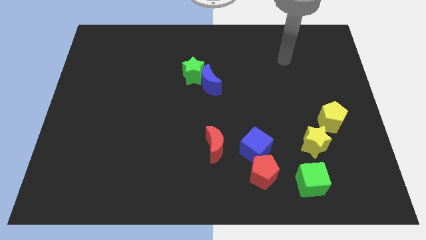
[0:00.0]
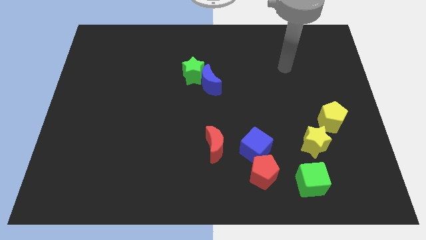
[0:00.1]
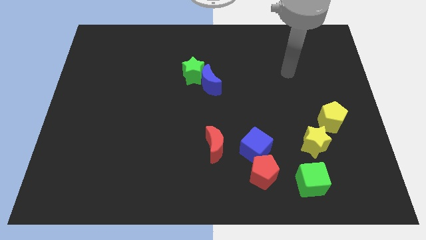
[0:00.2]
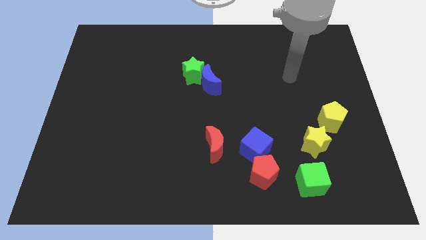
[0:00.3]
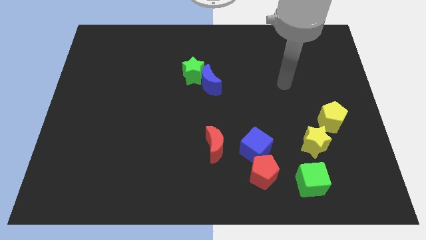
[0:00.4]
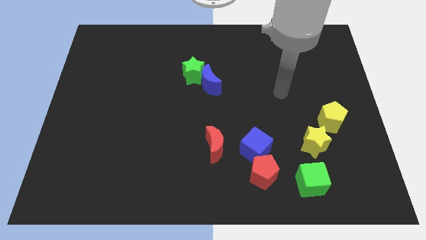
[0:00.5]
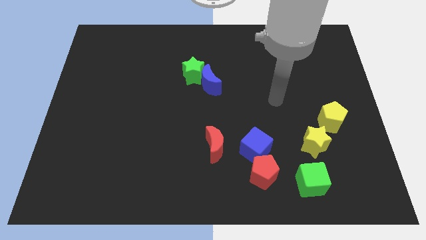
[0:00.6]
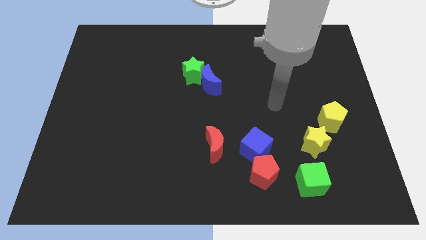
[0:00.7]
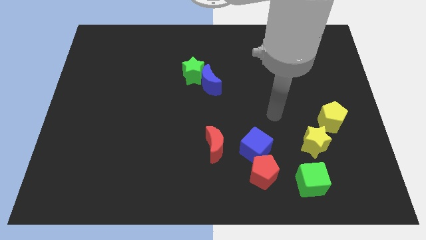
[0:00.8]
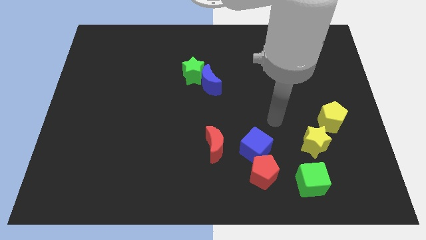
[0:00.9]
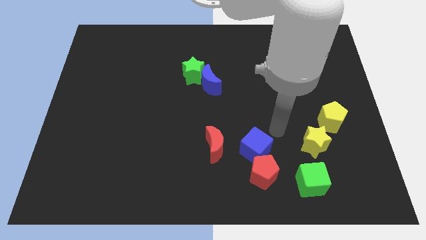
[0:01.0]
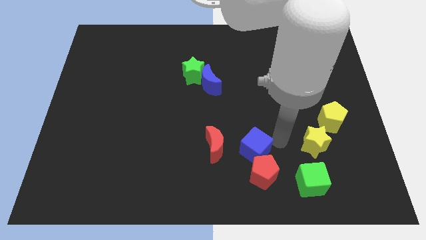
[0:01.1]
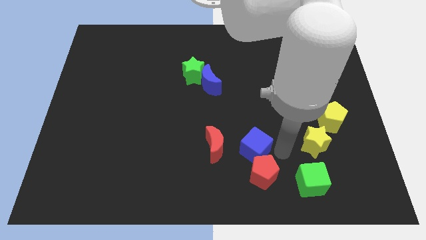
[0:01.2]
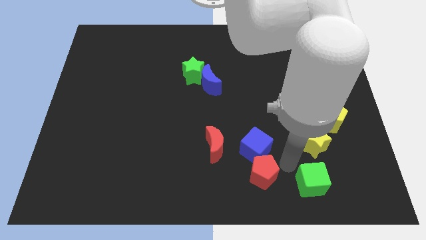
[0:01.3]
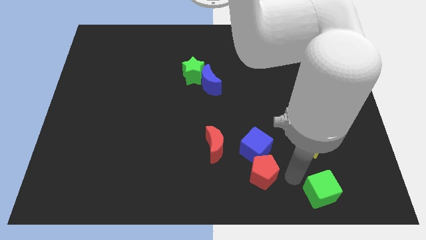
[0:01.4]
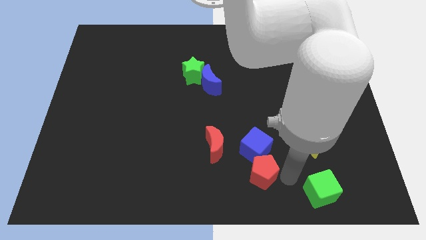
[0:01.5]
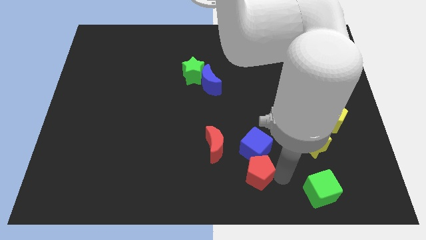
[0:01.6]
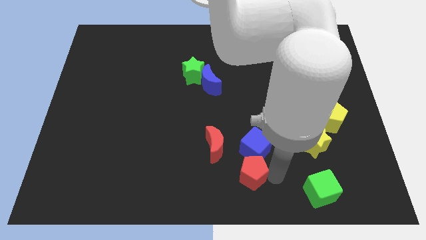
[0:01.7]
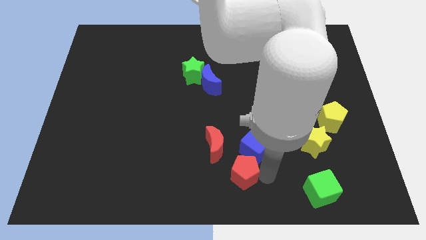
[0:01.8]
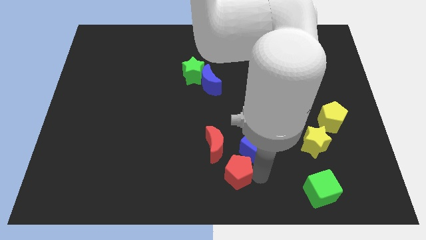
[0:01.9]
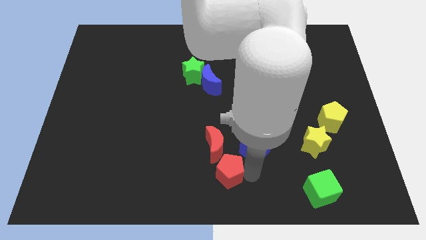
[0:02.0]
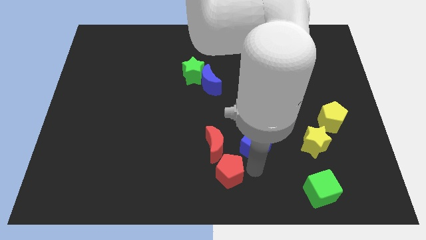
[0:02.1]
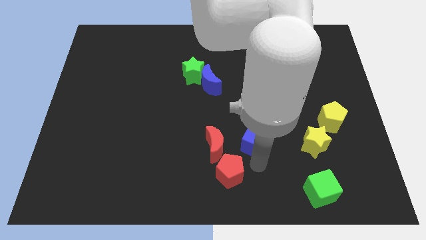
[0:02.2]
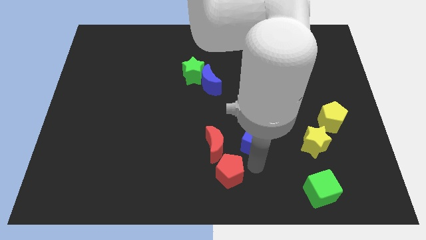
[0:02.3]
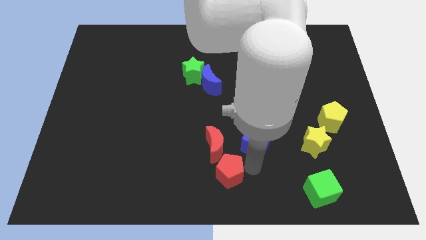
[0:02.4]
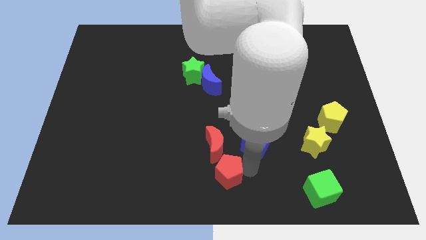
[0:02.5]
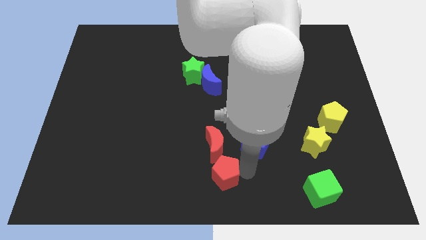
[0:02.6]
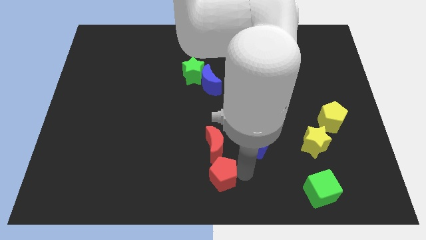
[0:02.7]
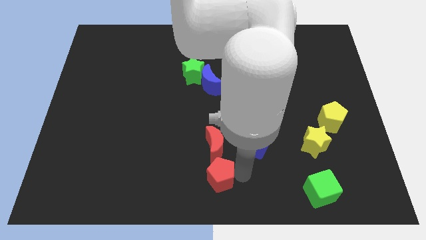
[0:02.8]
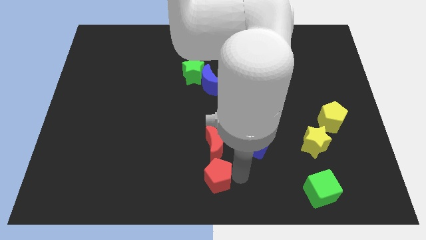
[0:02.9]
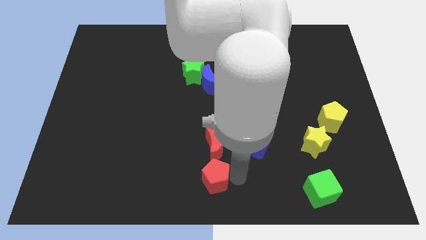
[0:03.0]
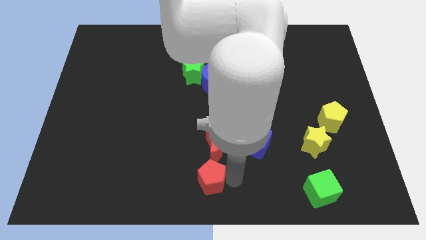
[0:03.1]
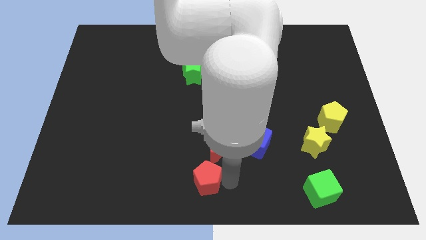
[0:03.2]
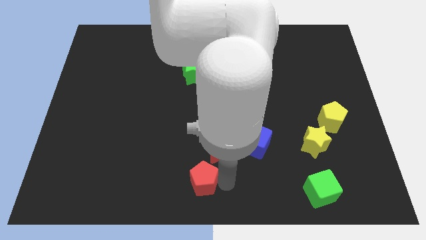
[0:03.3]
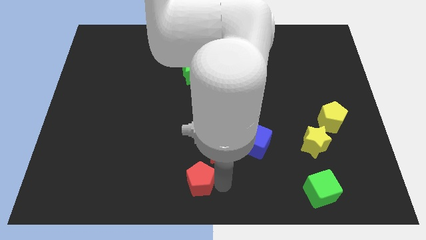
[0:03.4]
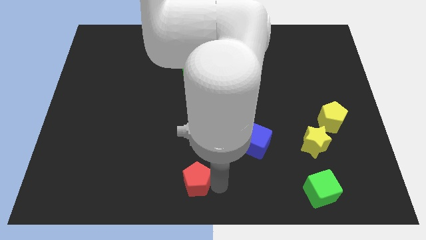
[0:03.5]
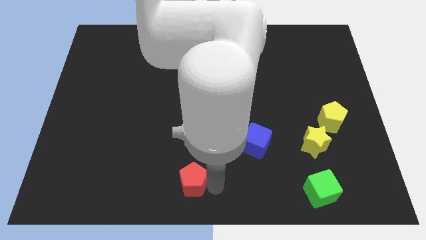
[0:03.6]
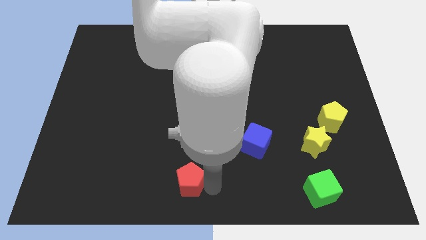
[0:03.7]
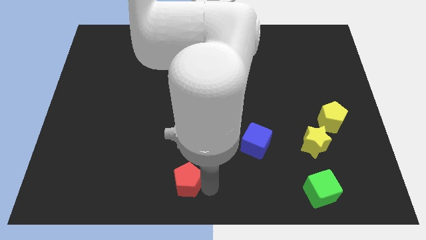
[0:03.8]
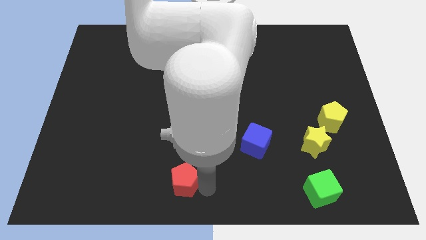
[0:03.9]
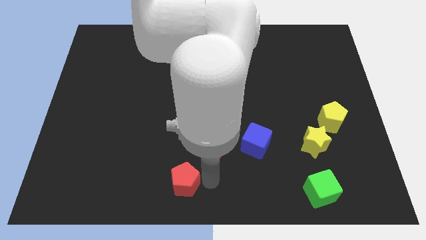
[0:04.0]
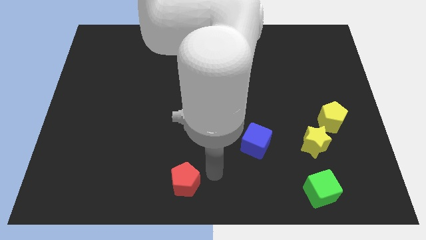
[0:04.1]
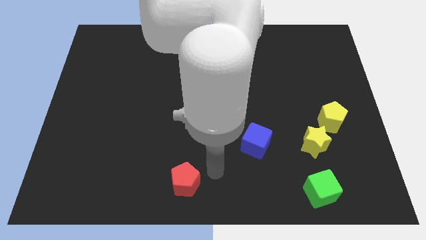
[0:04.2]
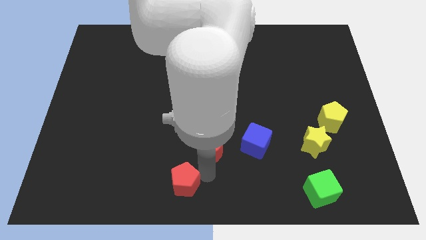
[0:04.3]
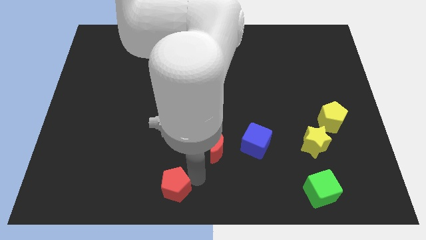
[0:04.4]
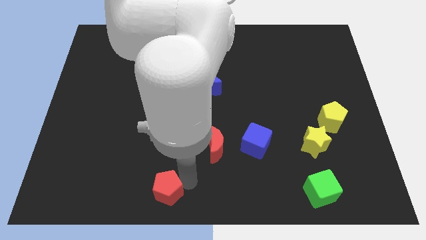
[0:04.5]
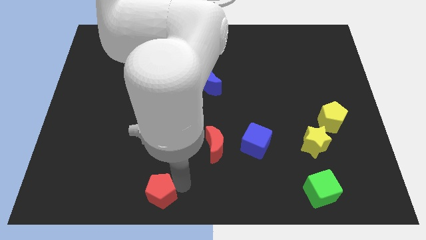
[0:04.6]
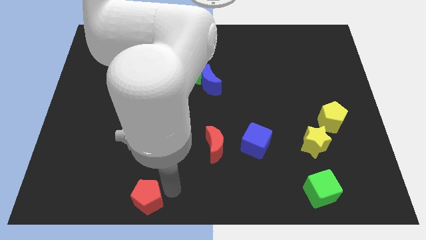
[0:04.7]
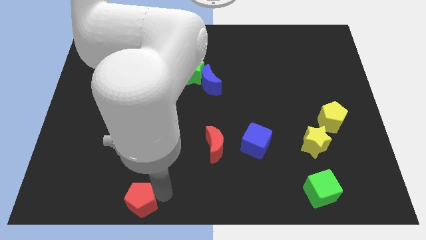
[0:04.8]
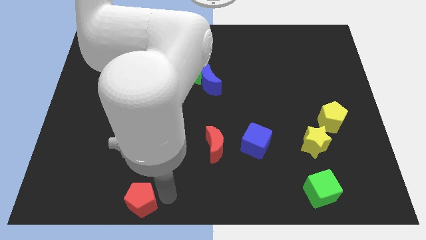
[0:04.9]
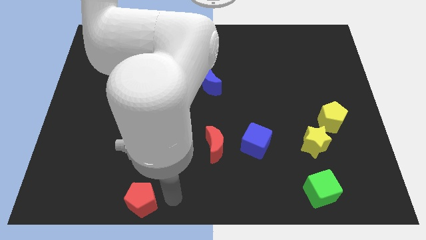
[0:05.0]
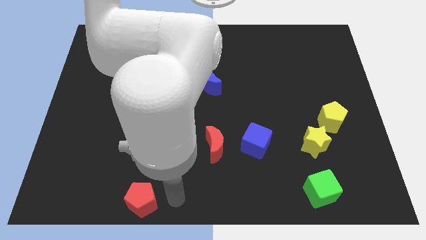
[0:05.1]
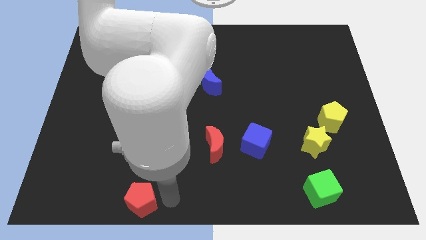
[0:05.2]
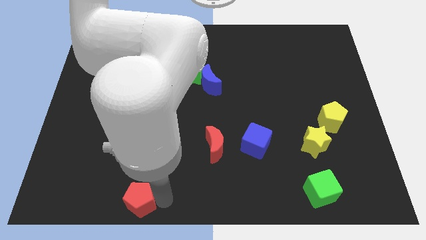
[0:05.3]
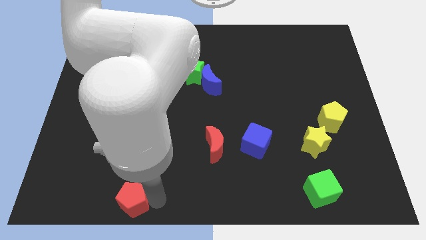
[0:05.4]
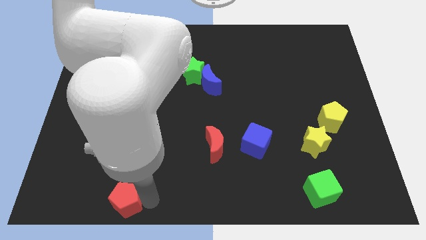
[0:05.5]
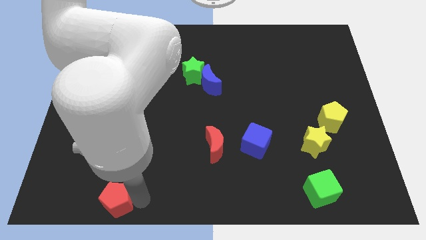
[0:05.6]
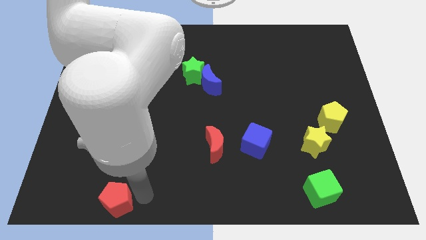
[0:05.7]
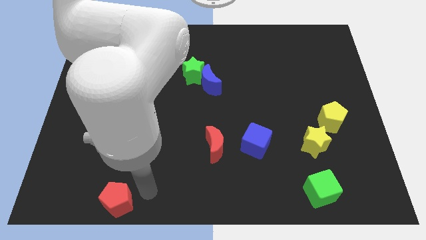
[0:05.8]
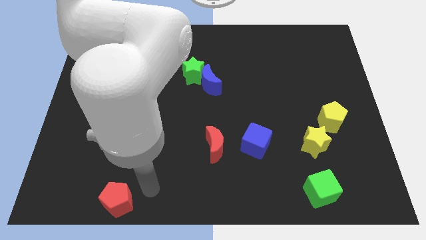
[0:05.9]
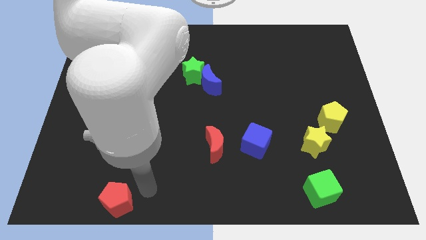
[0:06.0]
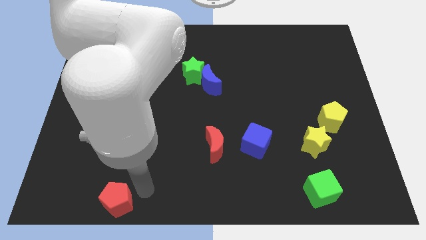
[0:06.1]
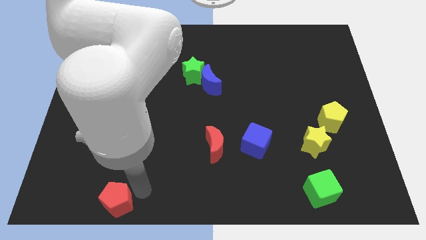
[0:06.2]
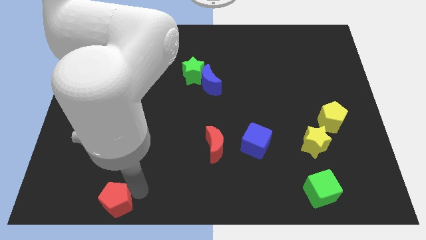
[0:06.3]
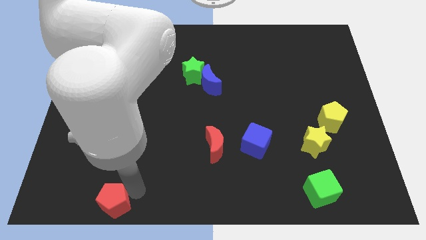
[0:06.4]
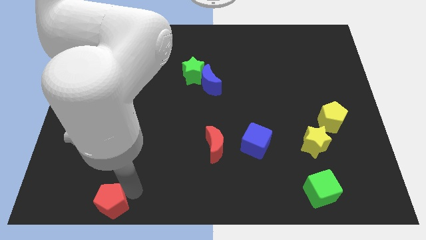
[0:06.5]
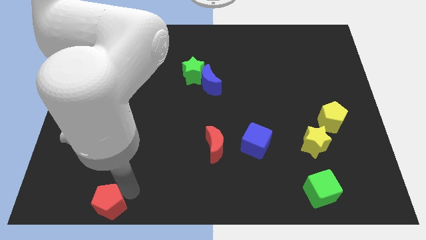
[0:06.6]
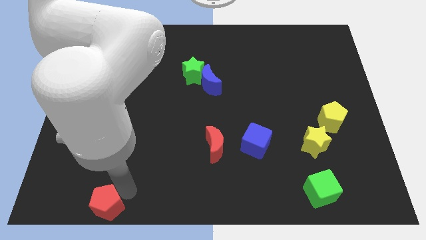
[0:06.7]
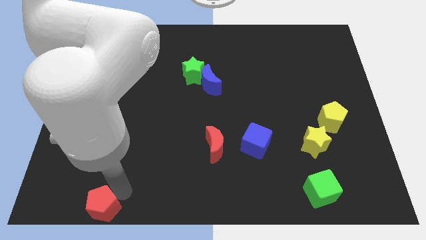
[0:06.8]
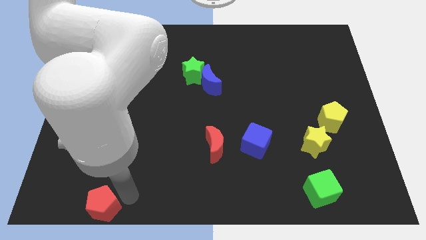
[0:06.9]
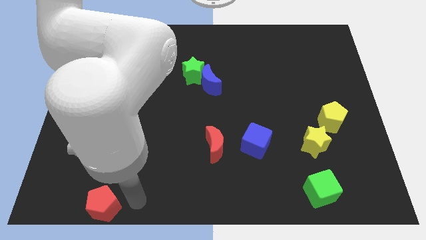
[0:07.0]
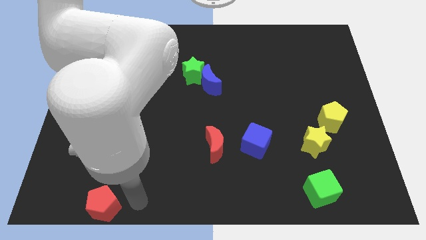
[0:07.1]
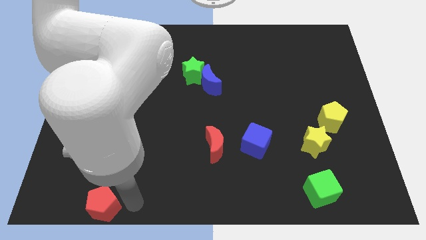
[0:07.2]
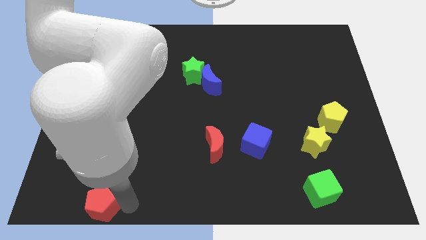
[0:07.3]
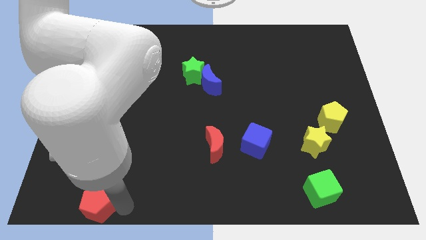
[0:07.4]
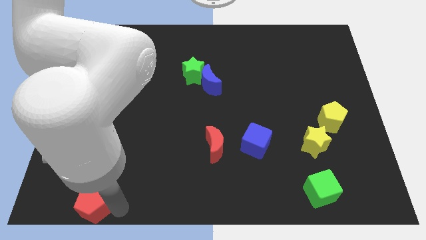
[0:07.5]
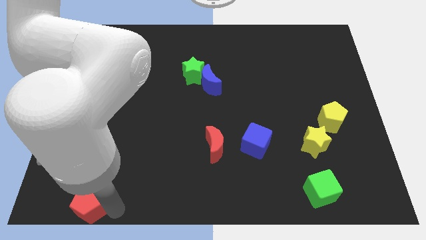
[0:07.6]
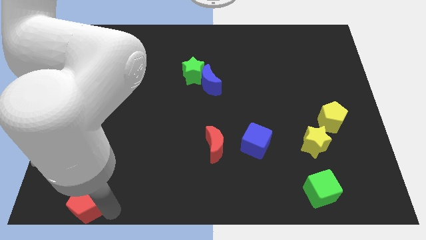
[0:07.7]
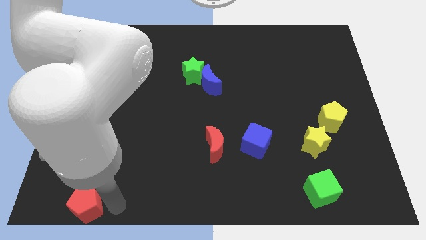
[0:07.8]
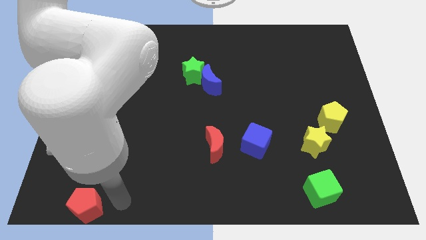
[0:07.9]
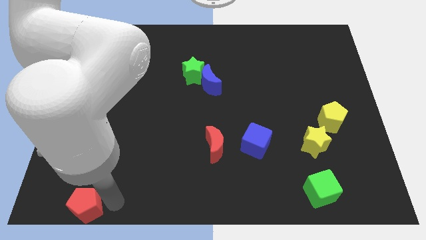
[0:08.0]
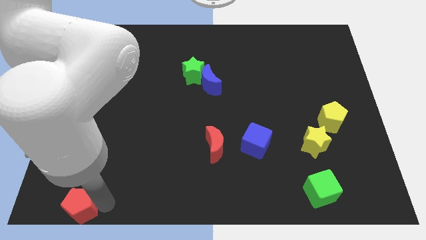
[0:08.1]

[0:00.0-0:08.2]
move the red pentagon to the bottom left of the board
